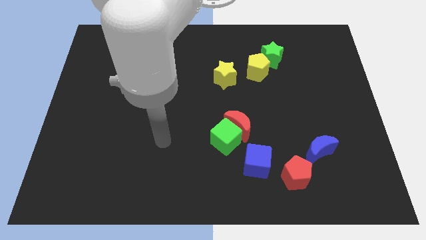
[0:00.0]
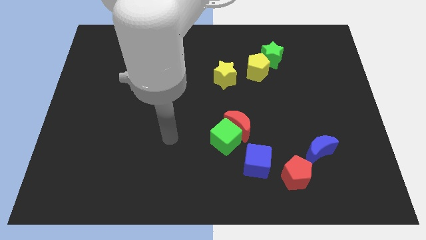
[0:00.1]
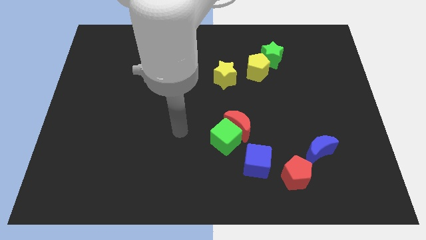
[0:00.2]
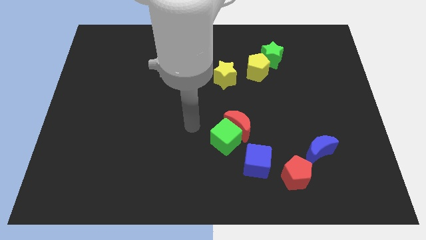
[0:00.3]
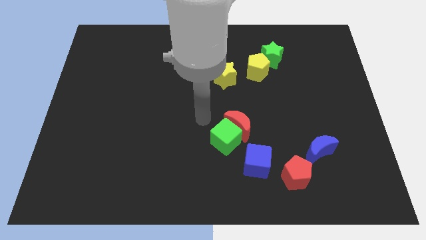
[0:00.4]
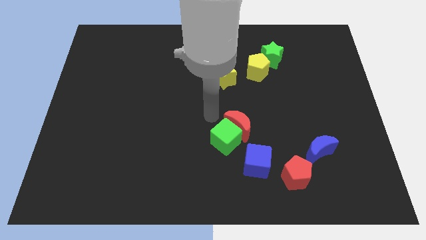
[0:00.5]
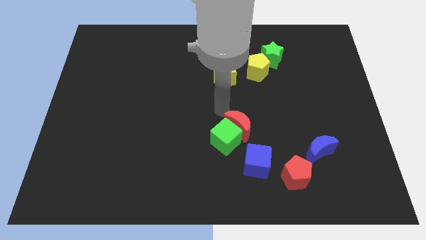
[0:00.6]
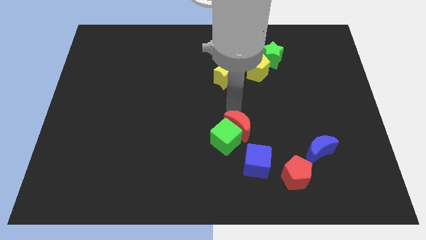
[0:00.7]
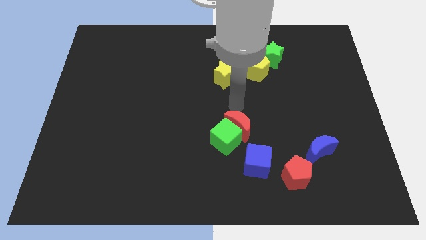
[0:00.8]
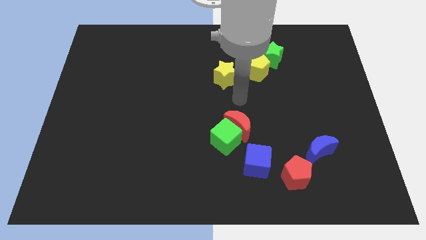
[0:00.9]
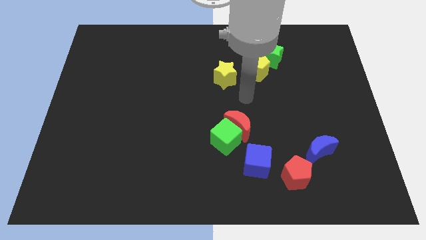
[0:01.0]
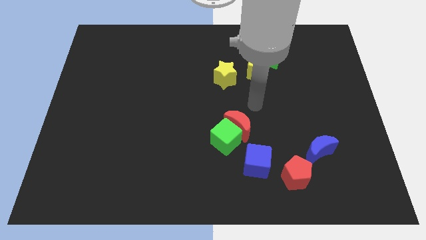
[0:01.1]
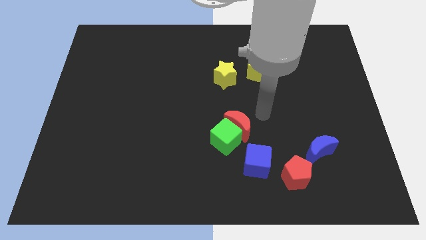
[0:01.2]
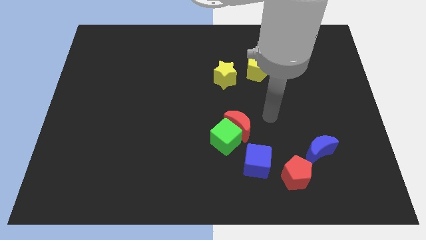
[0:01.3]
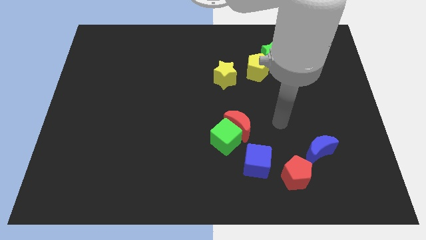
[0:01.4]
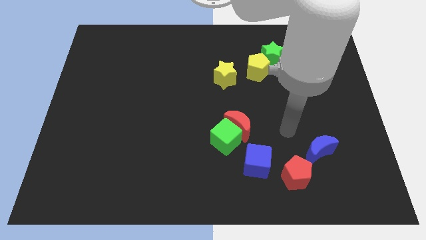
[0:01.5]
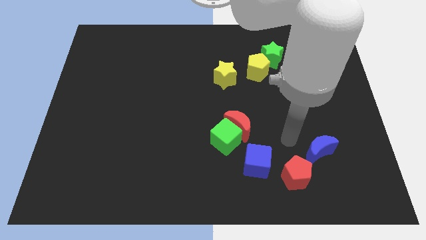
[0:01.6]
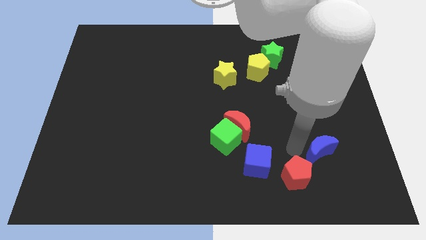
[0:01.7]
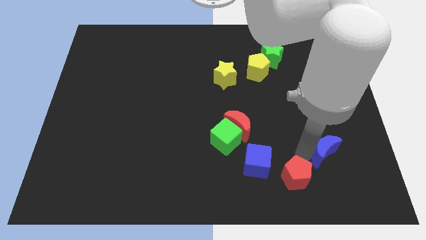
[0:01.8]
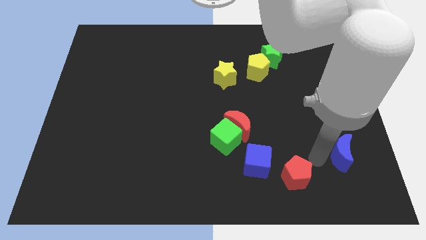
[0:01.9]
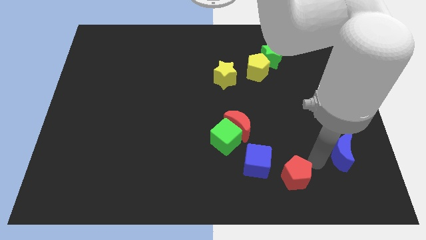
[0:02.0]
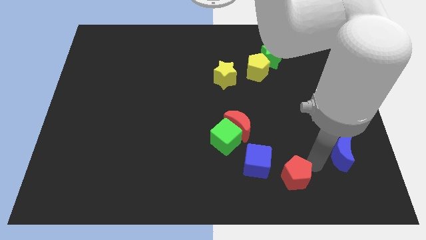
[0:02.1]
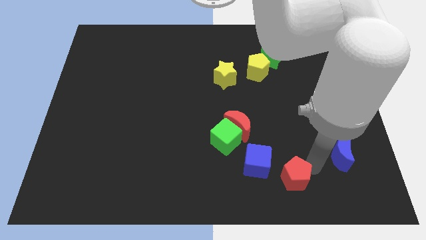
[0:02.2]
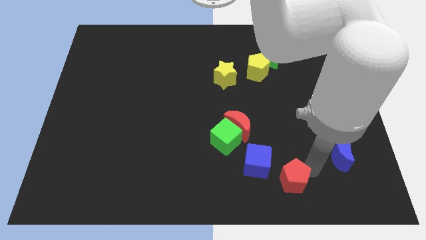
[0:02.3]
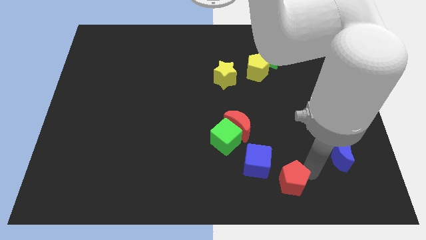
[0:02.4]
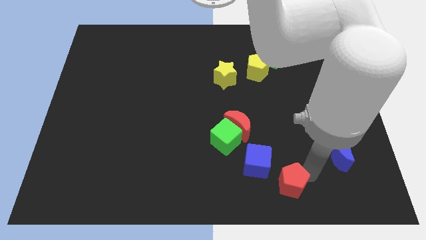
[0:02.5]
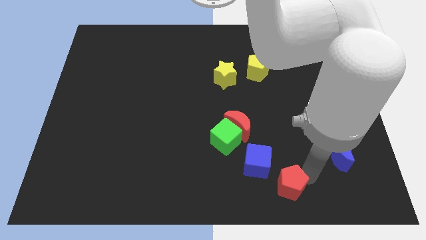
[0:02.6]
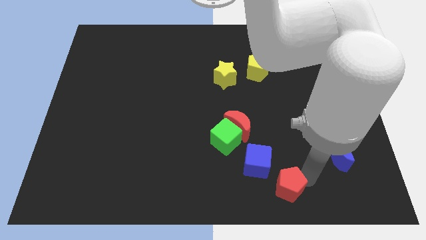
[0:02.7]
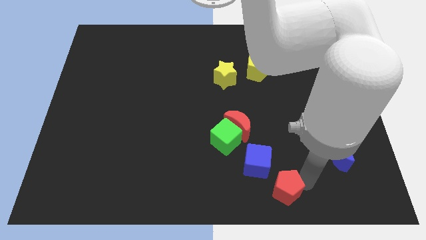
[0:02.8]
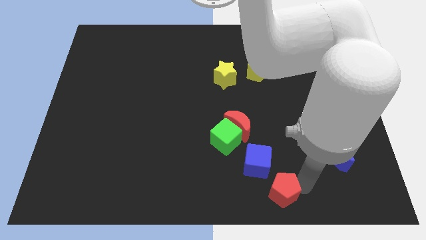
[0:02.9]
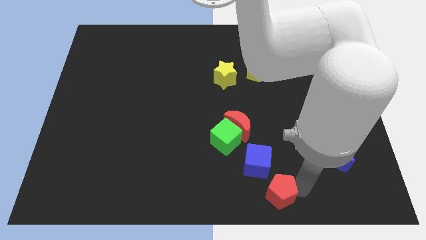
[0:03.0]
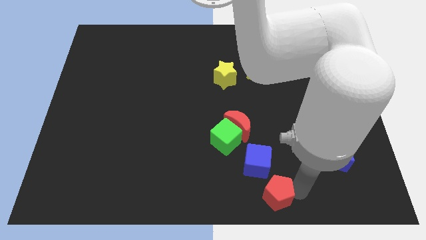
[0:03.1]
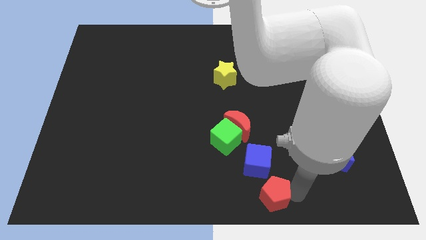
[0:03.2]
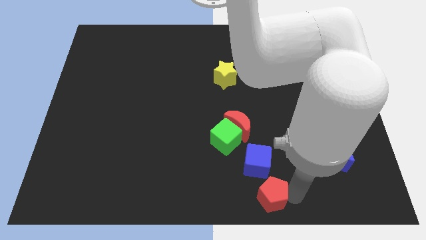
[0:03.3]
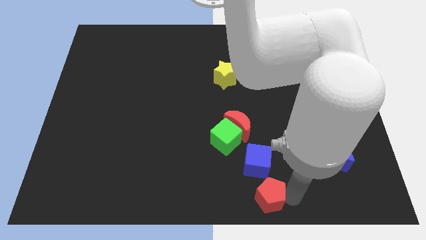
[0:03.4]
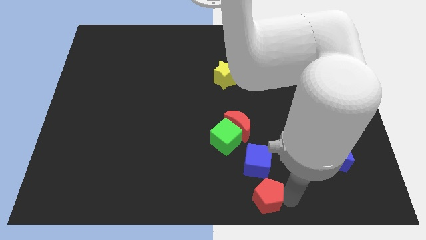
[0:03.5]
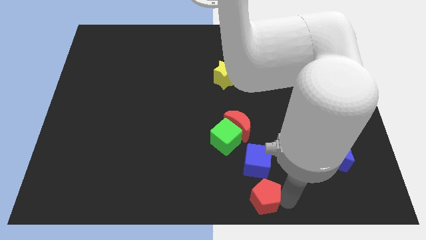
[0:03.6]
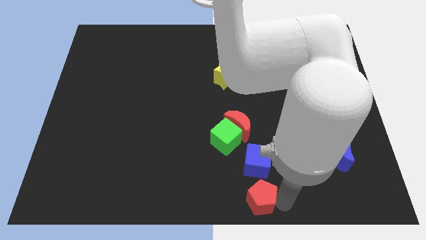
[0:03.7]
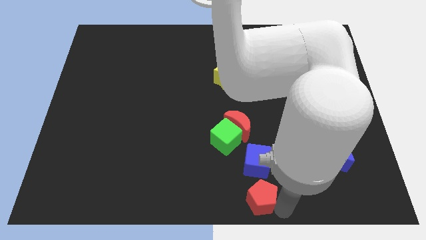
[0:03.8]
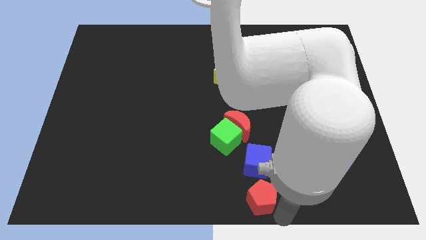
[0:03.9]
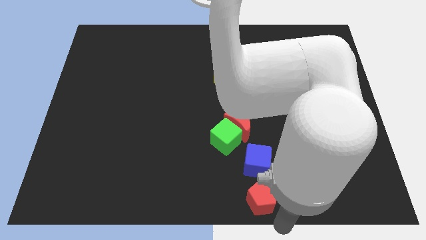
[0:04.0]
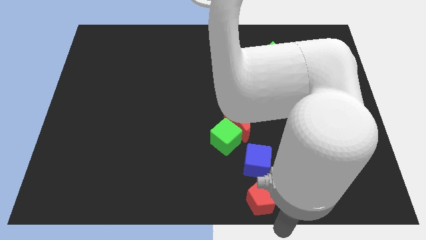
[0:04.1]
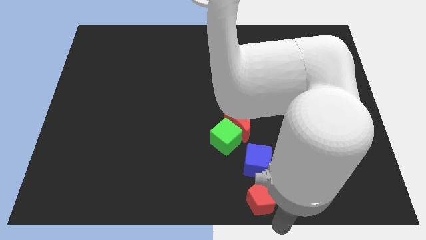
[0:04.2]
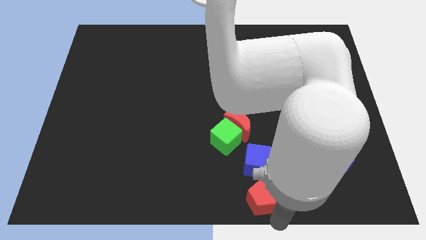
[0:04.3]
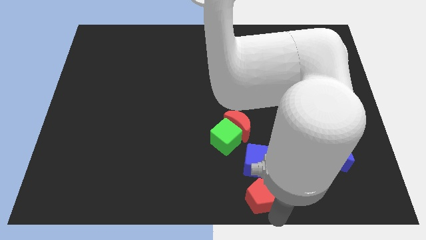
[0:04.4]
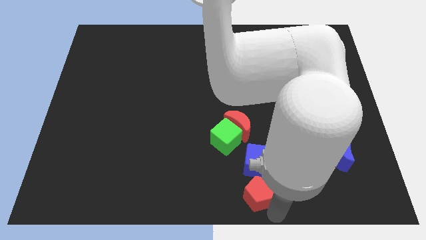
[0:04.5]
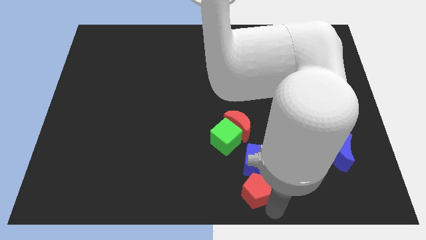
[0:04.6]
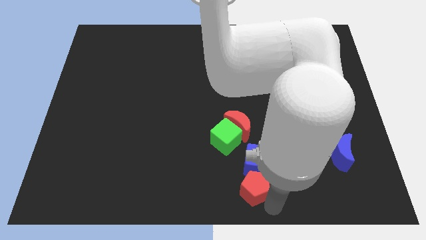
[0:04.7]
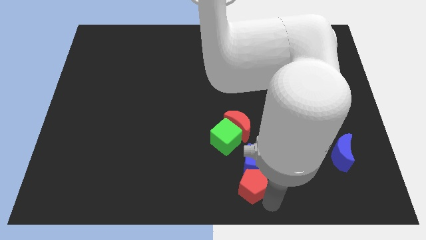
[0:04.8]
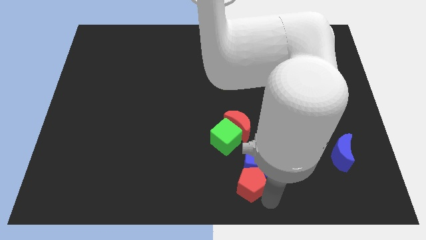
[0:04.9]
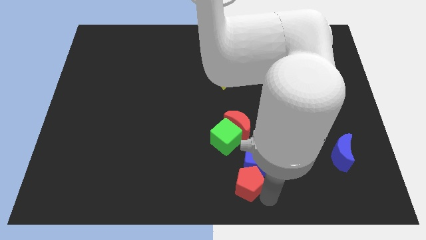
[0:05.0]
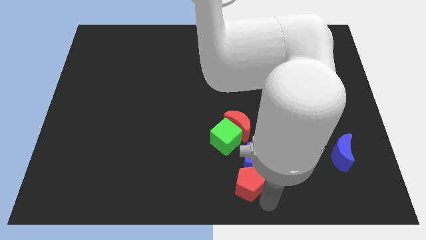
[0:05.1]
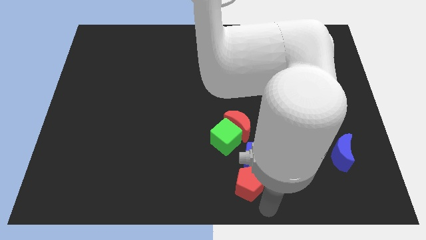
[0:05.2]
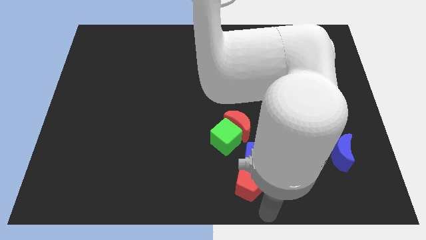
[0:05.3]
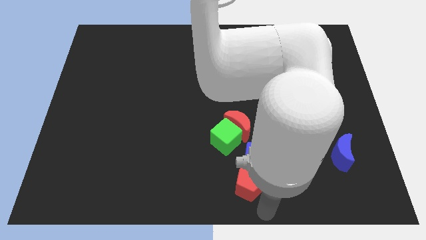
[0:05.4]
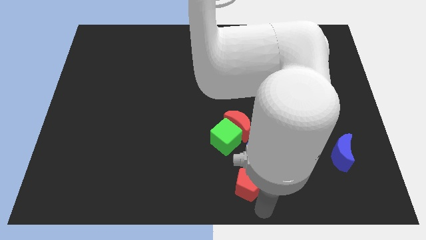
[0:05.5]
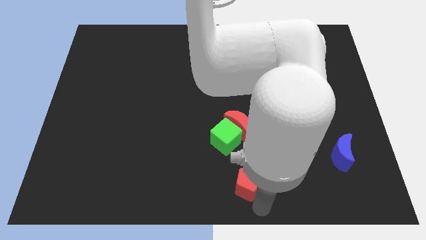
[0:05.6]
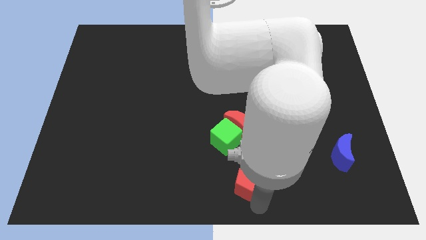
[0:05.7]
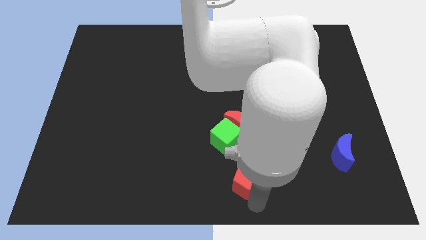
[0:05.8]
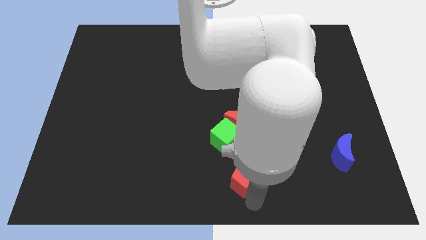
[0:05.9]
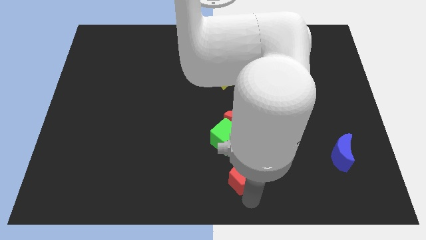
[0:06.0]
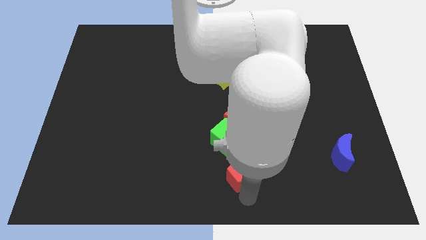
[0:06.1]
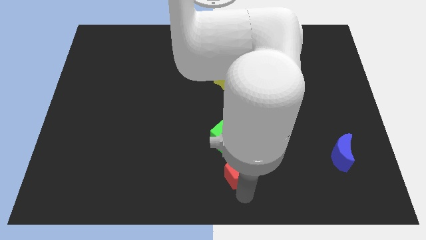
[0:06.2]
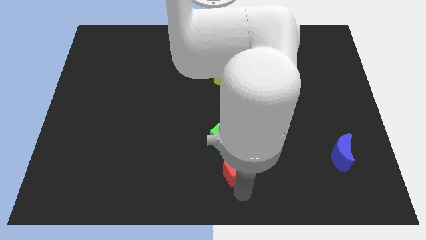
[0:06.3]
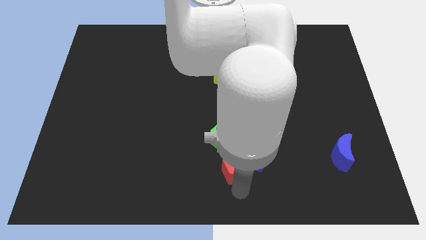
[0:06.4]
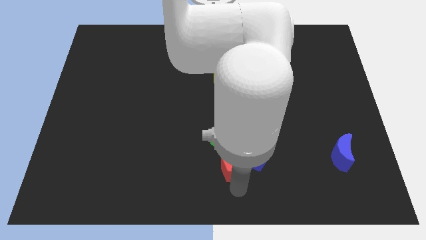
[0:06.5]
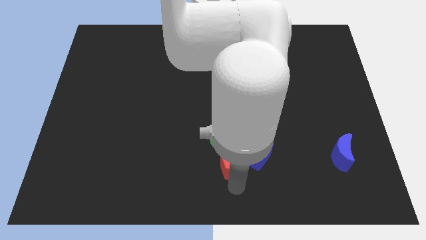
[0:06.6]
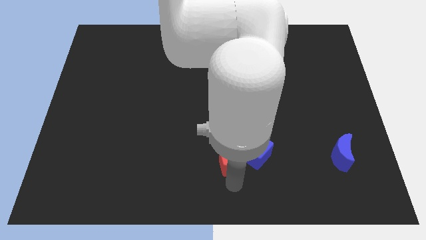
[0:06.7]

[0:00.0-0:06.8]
move the red pentagon close to the green cube

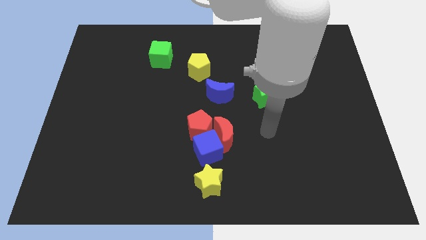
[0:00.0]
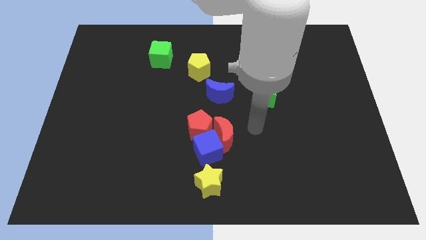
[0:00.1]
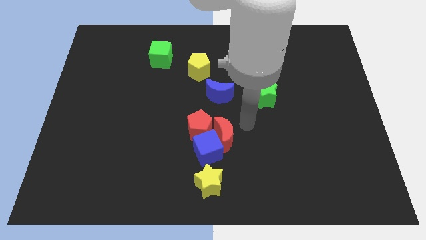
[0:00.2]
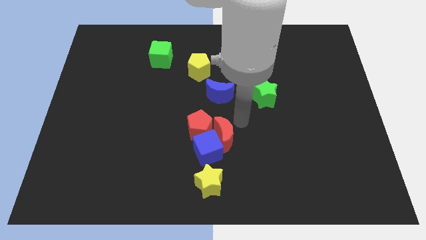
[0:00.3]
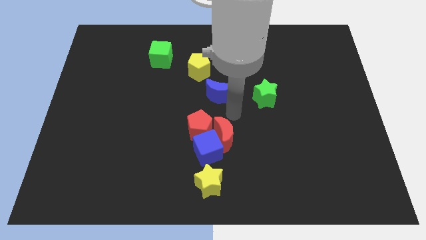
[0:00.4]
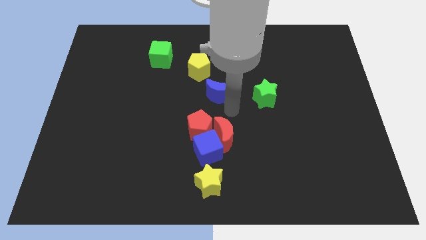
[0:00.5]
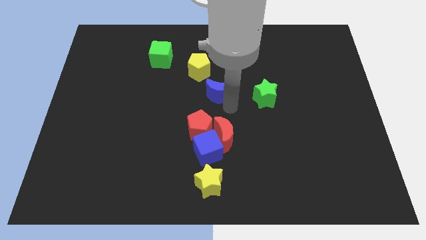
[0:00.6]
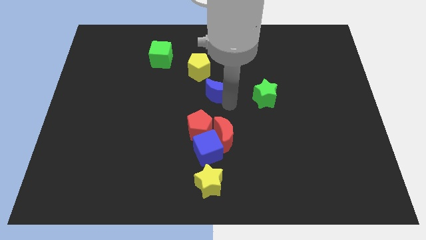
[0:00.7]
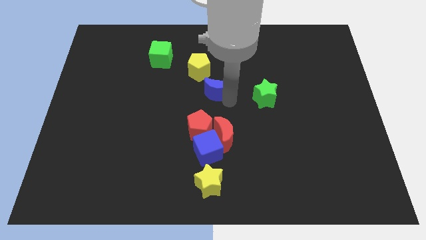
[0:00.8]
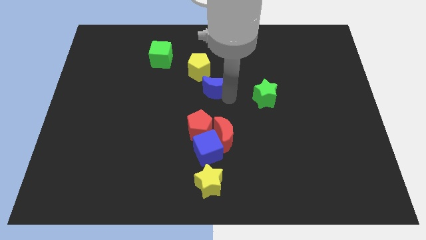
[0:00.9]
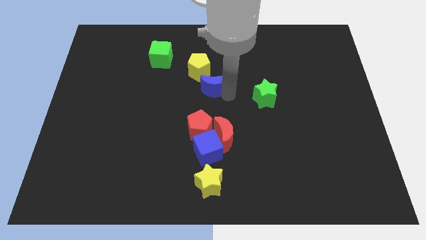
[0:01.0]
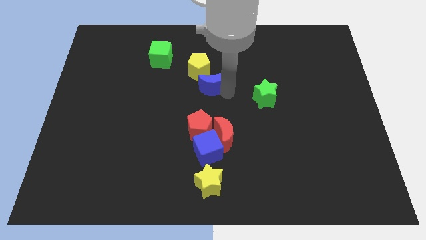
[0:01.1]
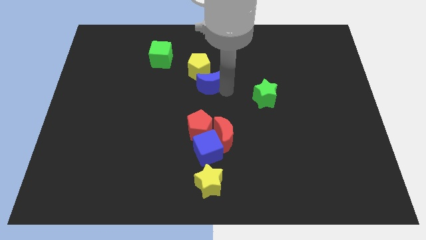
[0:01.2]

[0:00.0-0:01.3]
move the blue moon to the yellow pentagon
